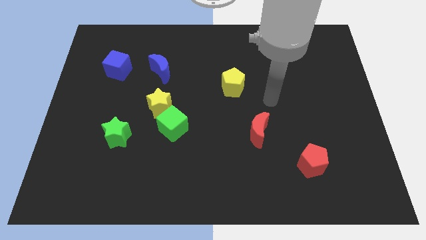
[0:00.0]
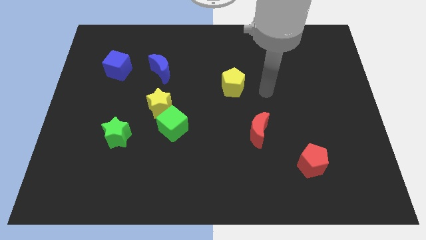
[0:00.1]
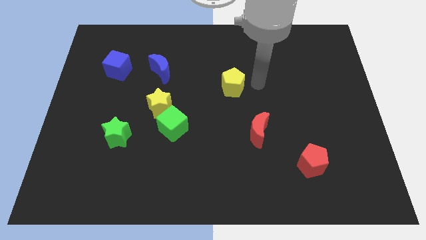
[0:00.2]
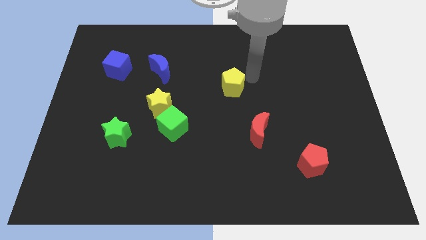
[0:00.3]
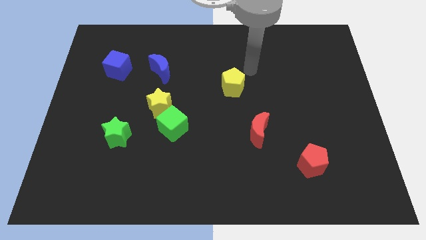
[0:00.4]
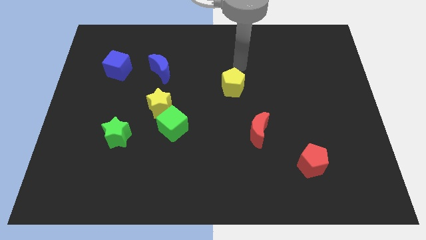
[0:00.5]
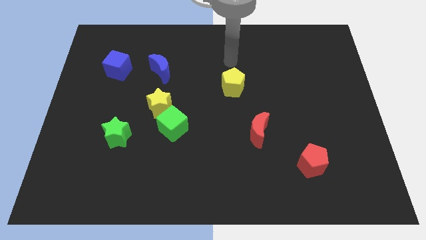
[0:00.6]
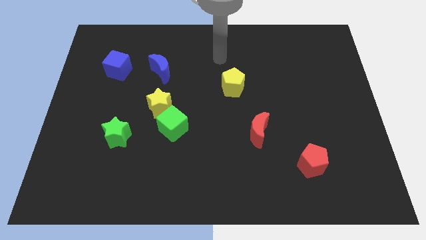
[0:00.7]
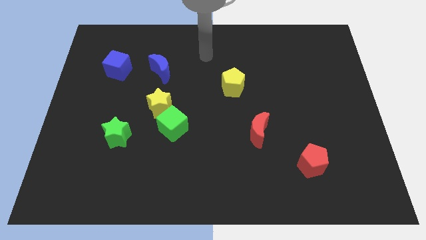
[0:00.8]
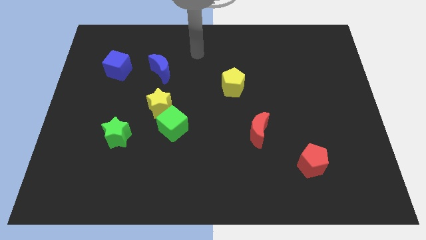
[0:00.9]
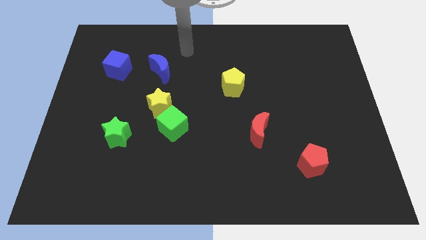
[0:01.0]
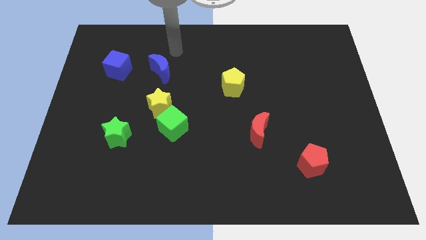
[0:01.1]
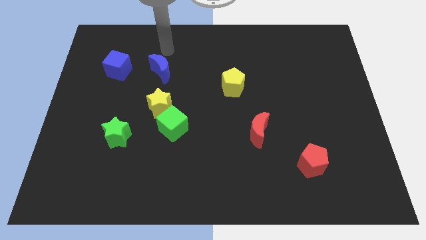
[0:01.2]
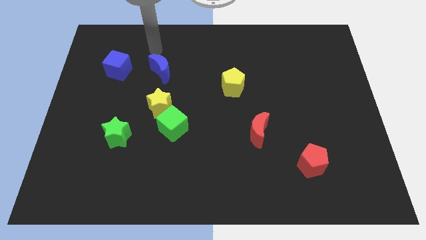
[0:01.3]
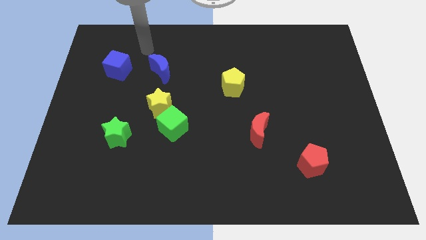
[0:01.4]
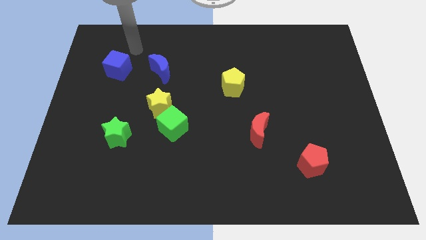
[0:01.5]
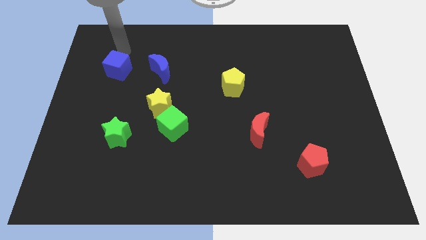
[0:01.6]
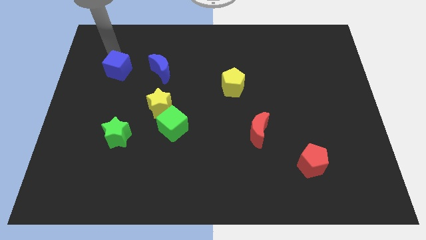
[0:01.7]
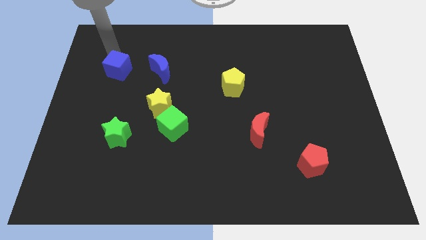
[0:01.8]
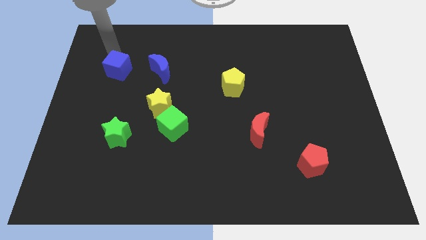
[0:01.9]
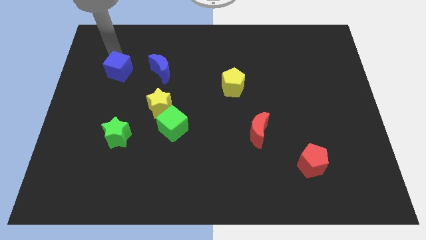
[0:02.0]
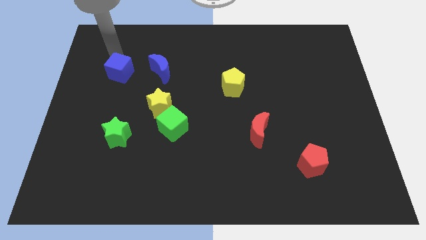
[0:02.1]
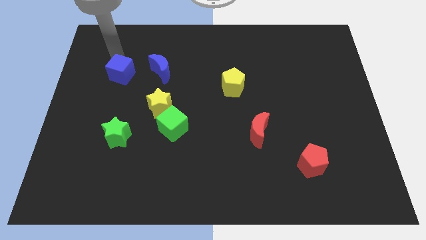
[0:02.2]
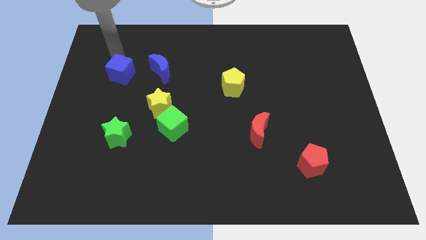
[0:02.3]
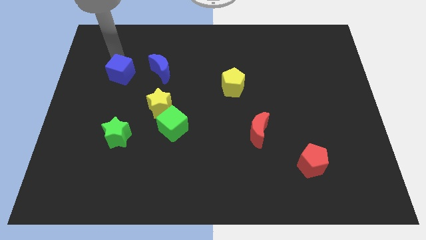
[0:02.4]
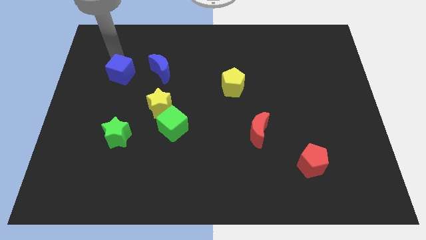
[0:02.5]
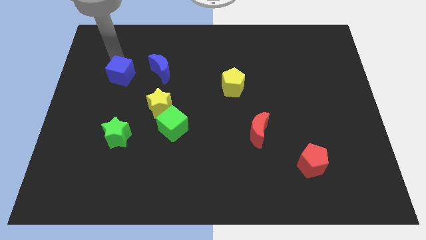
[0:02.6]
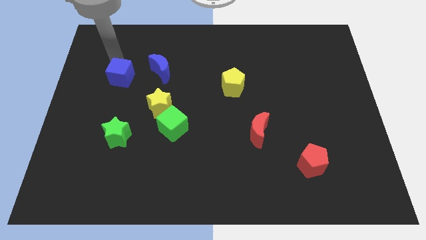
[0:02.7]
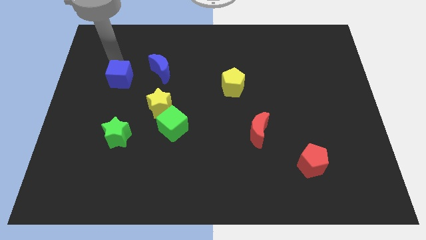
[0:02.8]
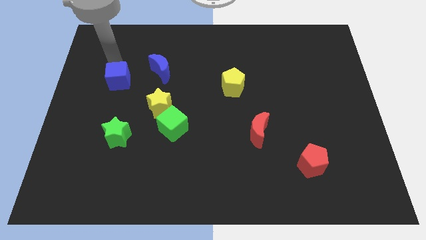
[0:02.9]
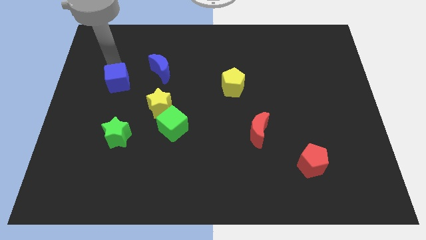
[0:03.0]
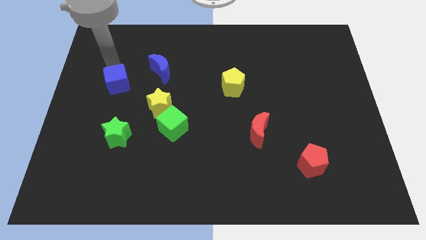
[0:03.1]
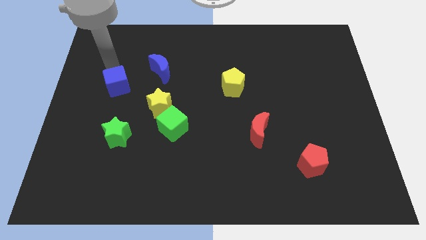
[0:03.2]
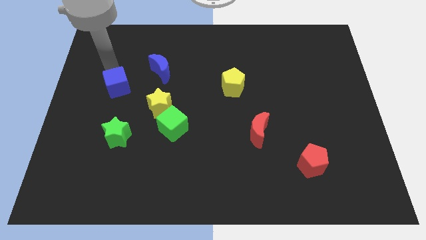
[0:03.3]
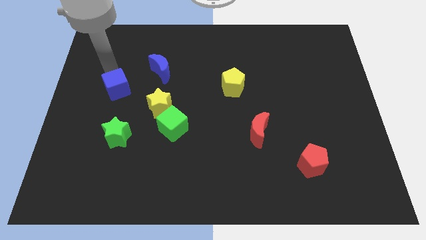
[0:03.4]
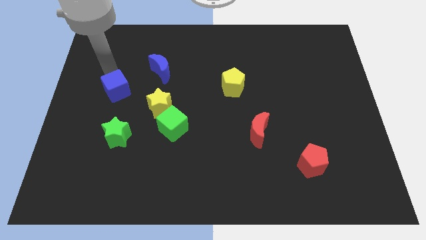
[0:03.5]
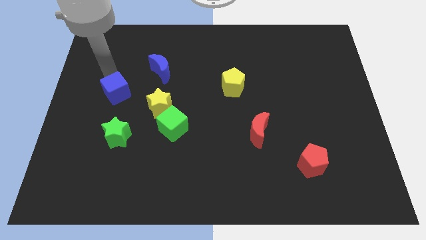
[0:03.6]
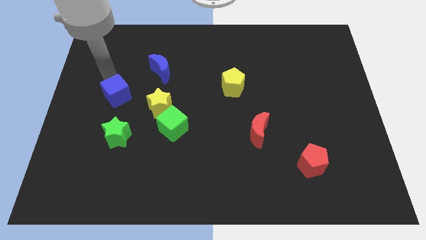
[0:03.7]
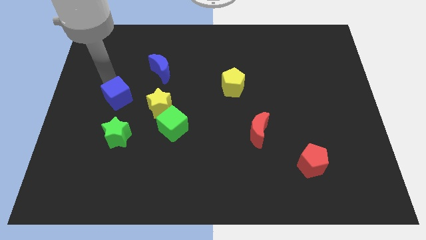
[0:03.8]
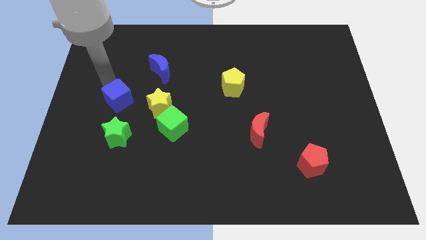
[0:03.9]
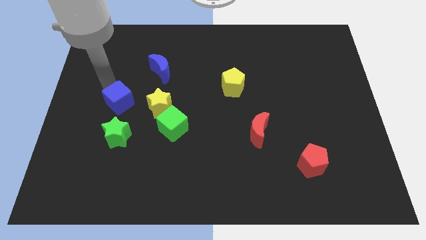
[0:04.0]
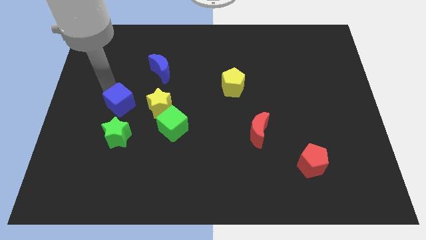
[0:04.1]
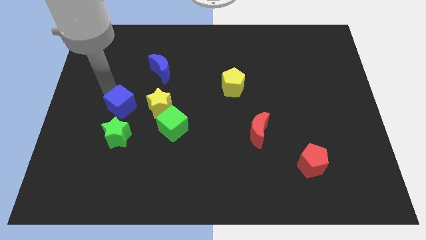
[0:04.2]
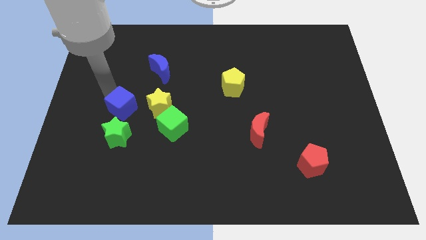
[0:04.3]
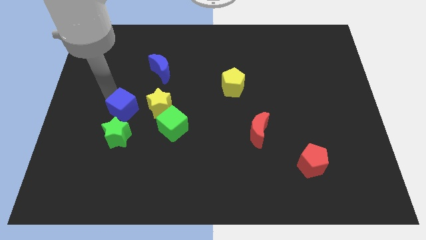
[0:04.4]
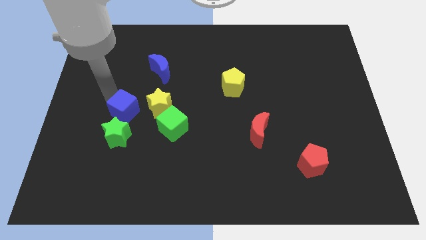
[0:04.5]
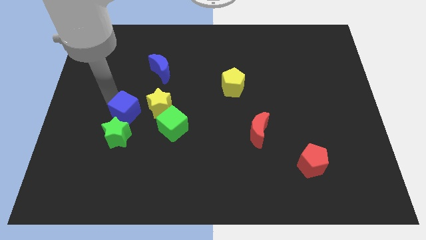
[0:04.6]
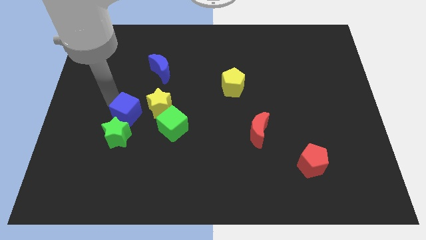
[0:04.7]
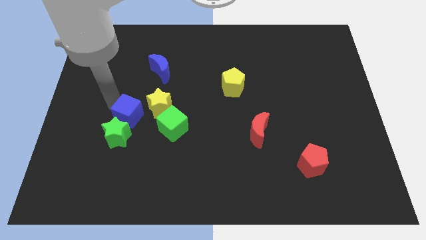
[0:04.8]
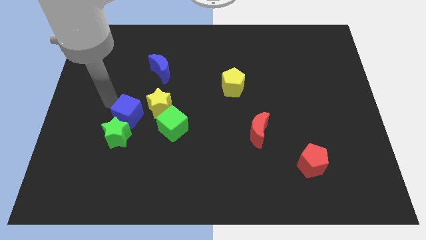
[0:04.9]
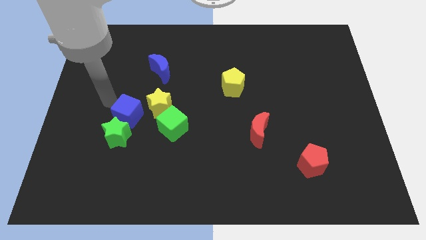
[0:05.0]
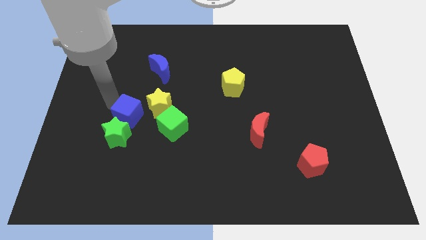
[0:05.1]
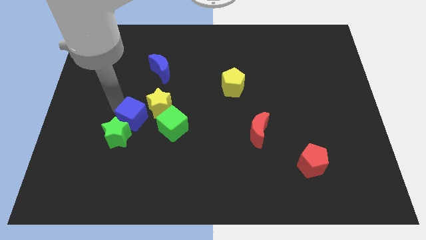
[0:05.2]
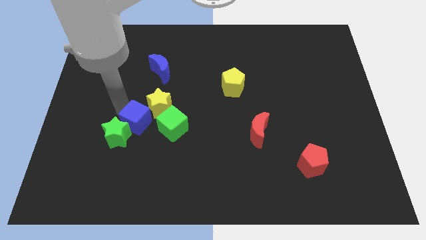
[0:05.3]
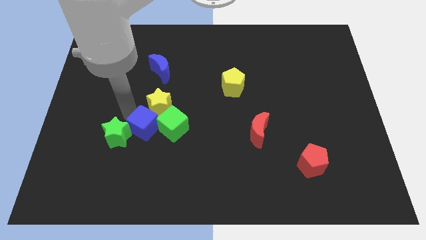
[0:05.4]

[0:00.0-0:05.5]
slide the blue cube below the yellow star
